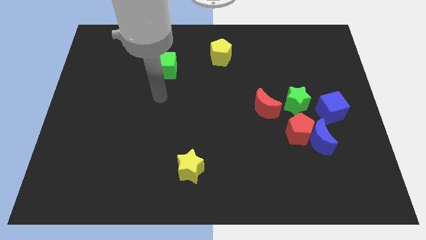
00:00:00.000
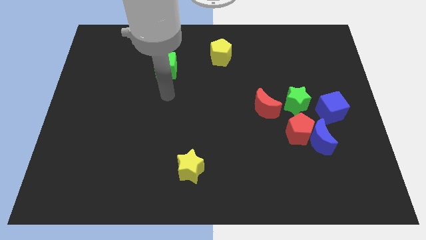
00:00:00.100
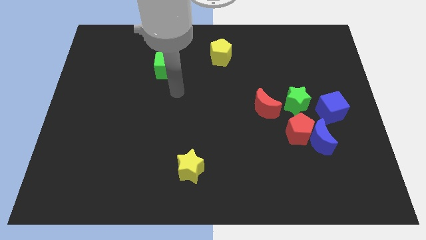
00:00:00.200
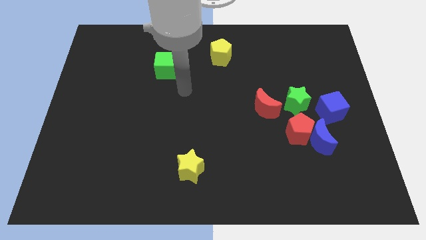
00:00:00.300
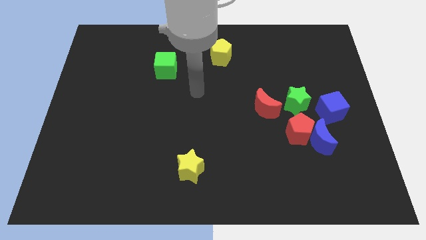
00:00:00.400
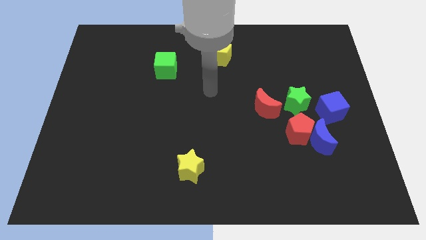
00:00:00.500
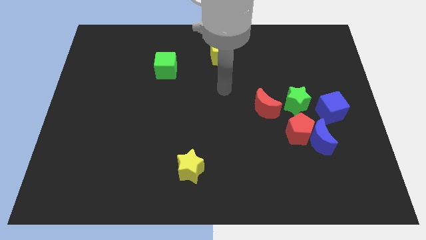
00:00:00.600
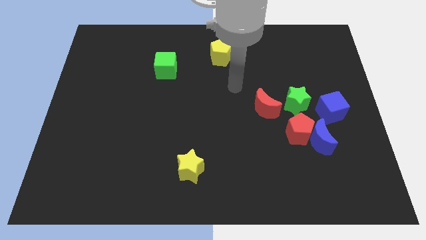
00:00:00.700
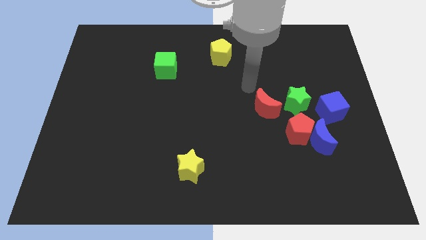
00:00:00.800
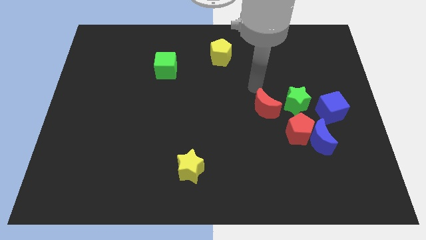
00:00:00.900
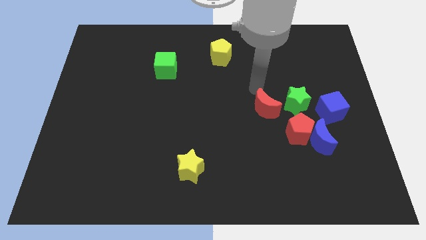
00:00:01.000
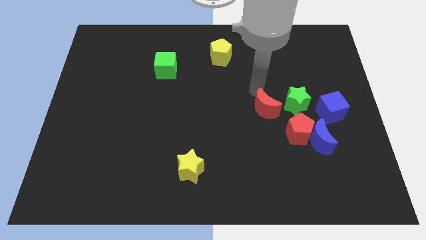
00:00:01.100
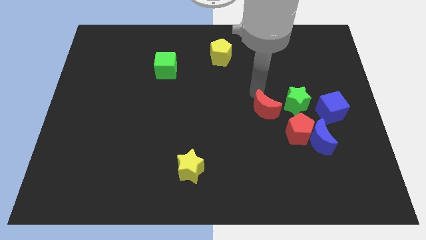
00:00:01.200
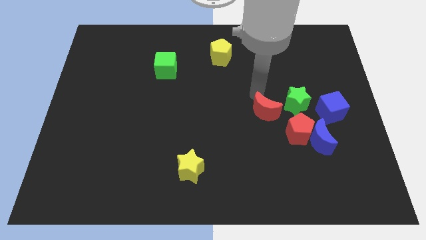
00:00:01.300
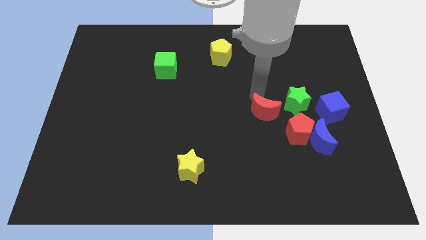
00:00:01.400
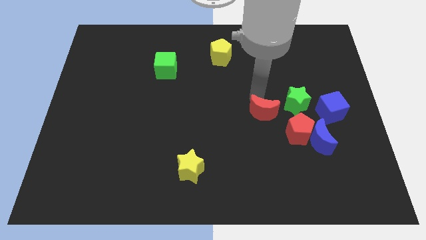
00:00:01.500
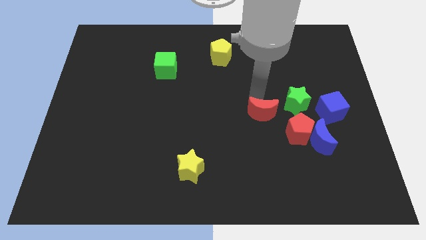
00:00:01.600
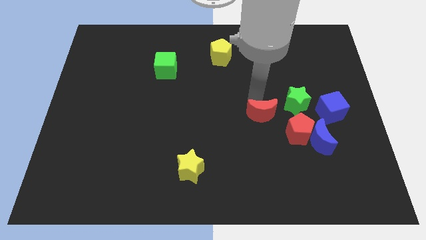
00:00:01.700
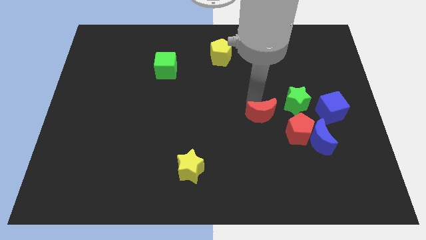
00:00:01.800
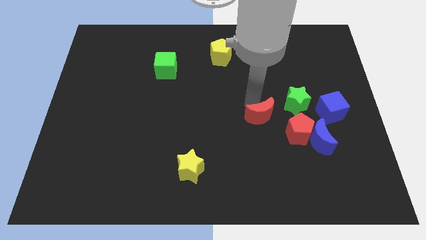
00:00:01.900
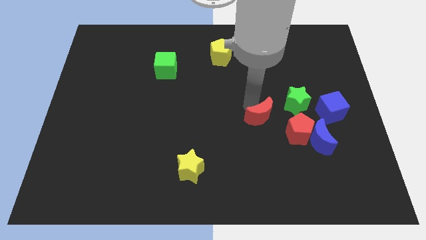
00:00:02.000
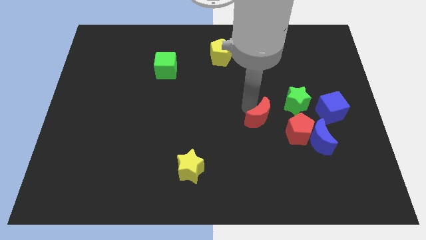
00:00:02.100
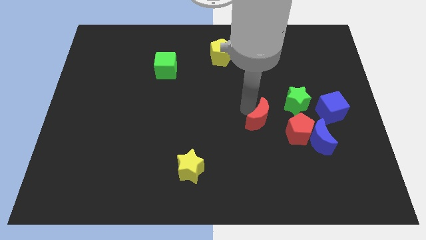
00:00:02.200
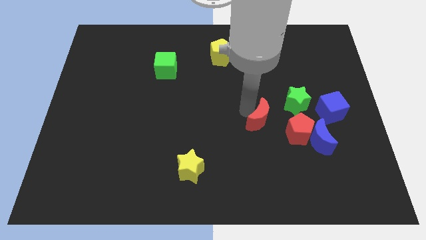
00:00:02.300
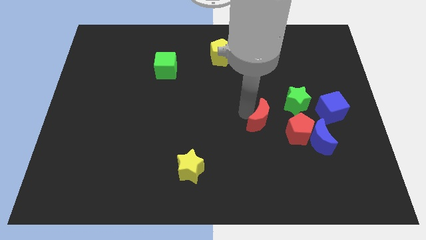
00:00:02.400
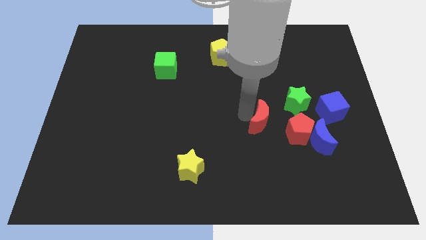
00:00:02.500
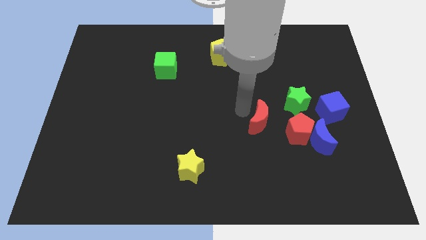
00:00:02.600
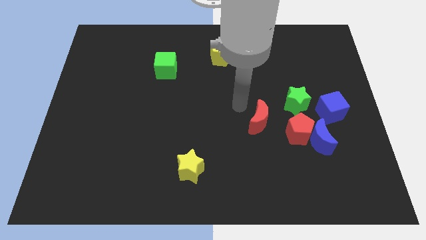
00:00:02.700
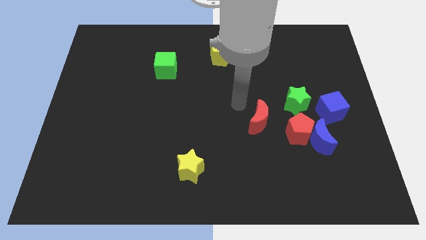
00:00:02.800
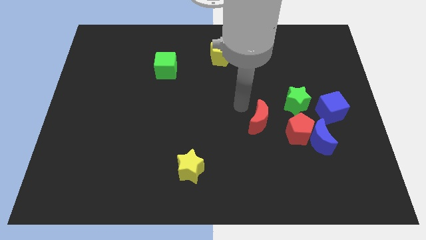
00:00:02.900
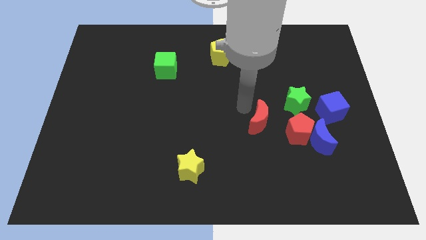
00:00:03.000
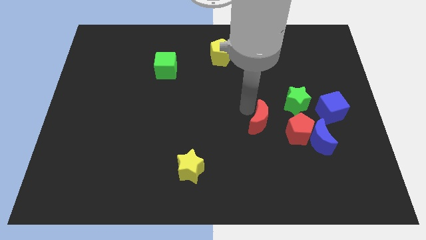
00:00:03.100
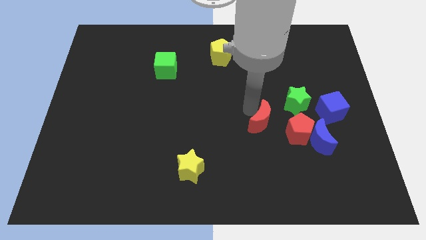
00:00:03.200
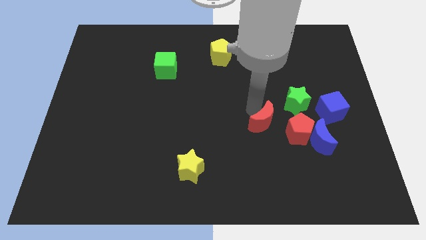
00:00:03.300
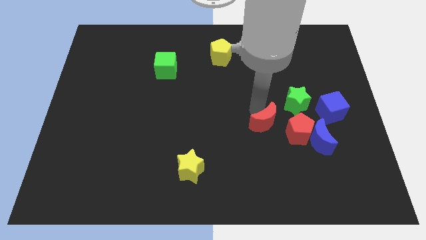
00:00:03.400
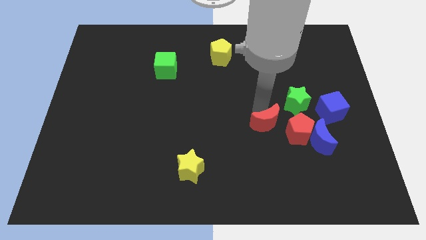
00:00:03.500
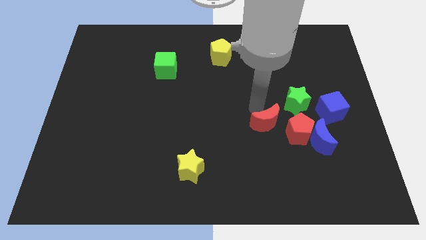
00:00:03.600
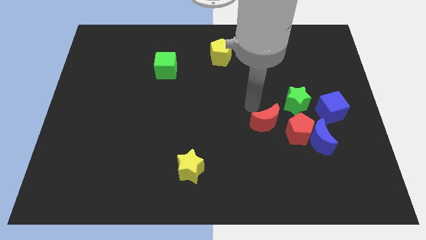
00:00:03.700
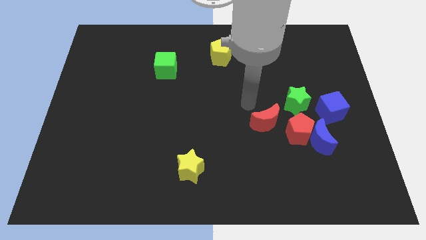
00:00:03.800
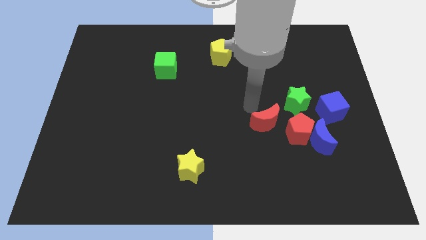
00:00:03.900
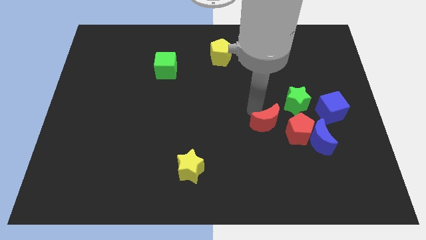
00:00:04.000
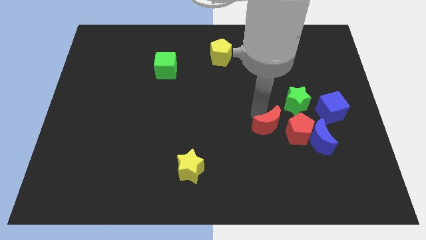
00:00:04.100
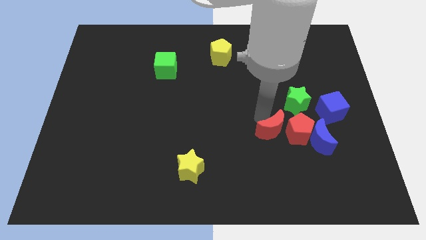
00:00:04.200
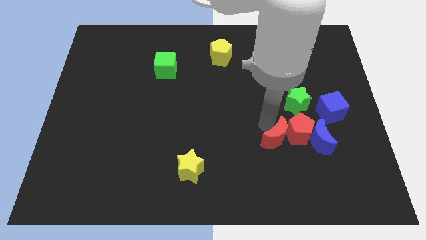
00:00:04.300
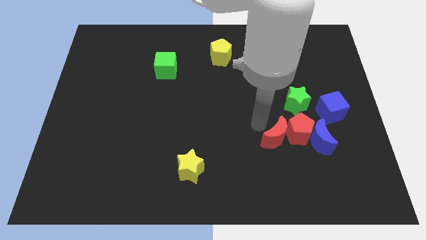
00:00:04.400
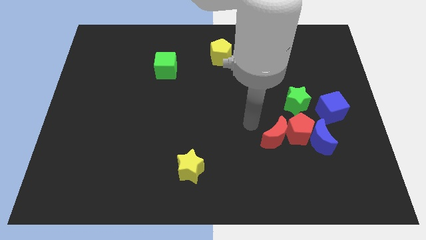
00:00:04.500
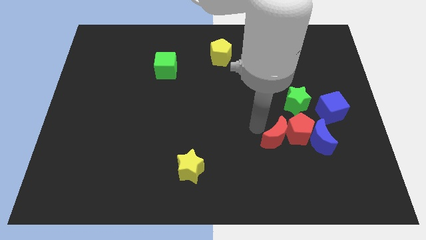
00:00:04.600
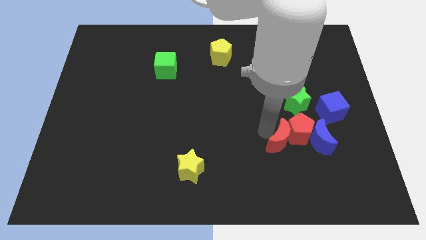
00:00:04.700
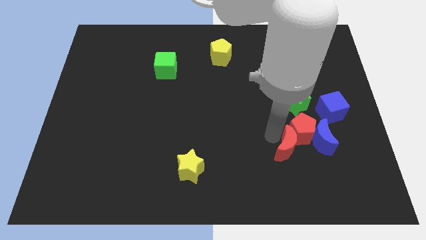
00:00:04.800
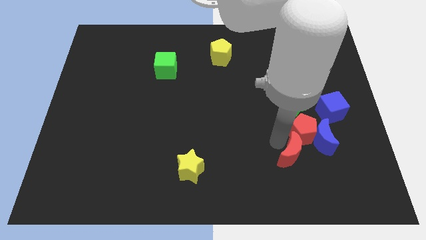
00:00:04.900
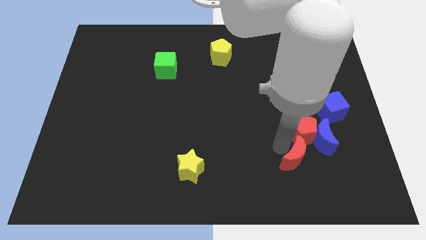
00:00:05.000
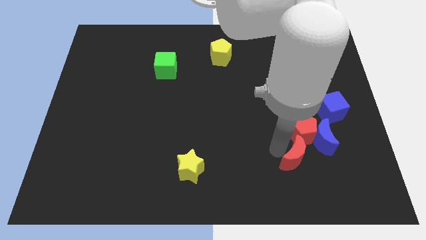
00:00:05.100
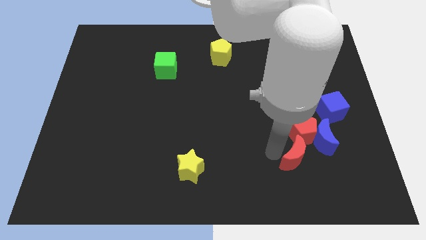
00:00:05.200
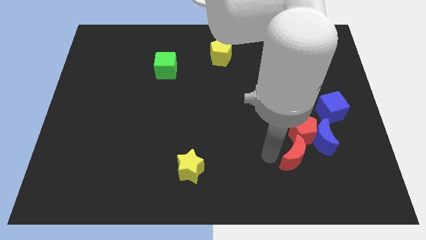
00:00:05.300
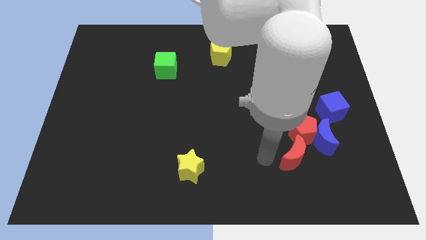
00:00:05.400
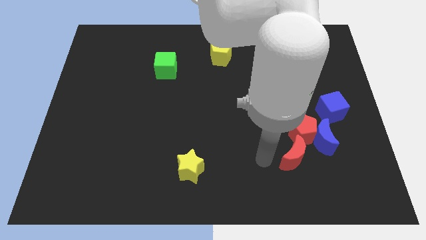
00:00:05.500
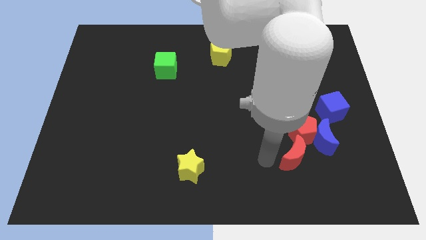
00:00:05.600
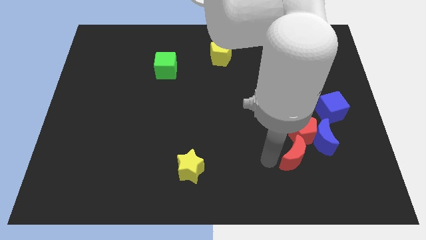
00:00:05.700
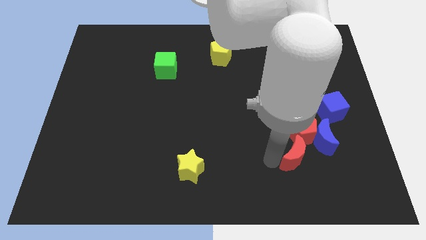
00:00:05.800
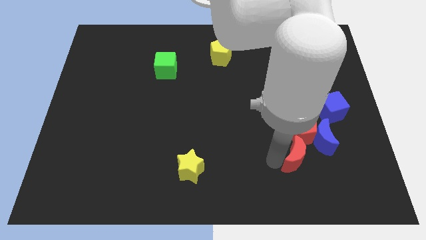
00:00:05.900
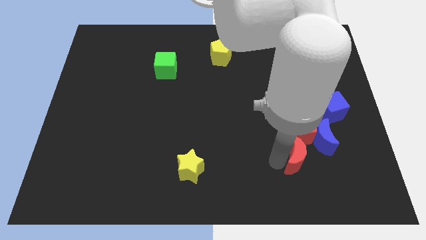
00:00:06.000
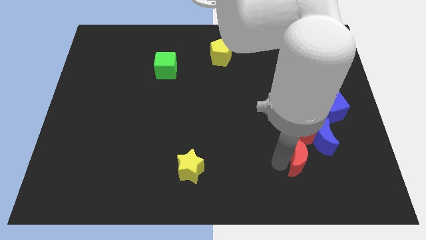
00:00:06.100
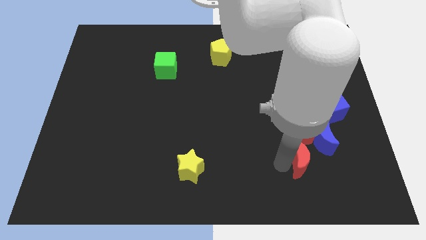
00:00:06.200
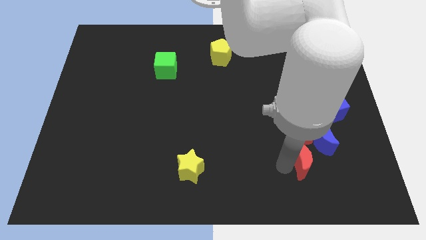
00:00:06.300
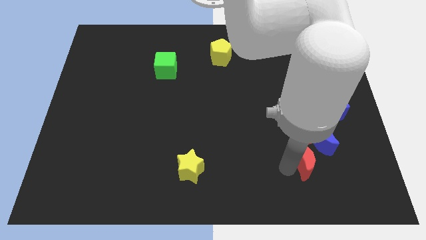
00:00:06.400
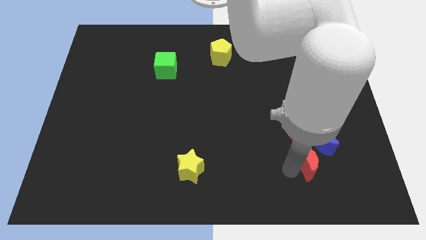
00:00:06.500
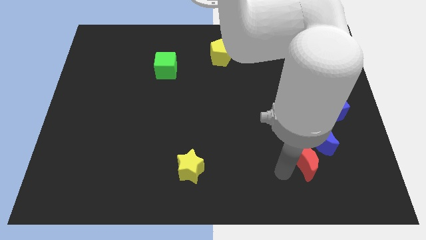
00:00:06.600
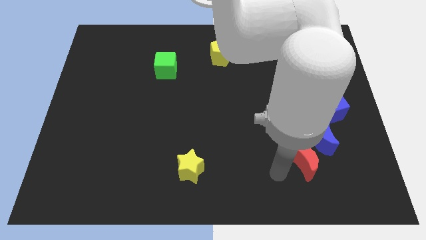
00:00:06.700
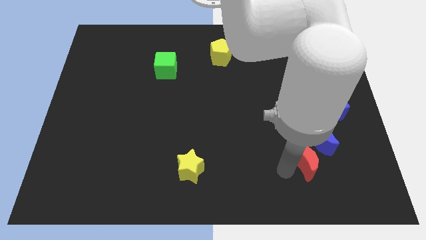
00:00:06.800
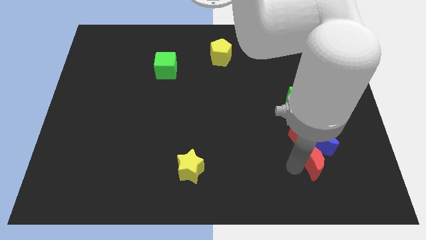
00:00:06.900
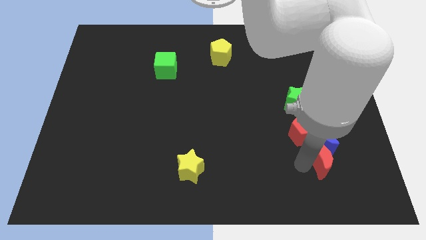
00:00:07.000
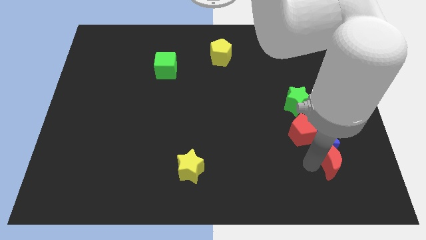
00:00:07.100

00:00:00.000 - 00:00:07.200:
slide the red moon to the bottom of the blue cube

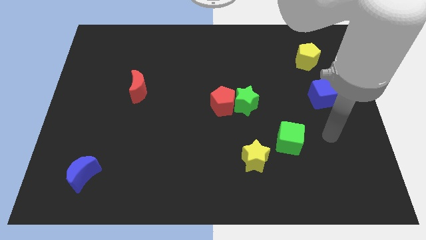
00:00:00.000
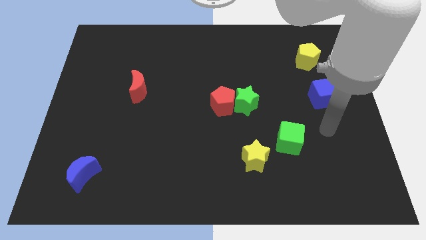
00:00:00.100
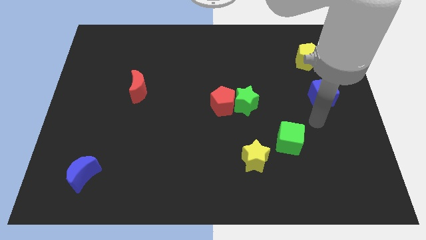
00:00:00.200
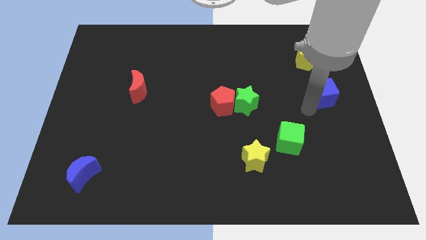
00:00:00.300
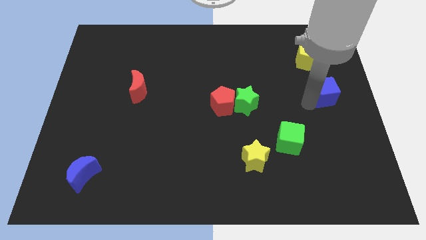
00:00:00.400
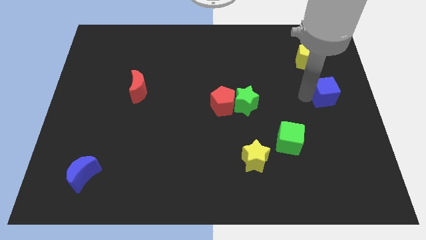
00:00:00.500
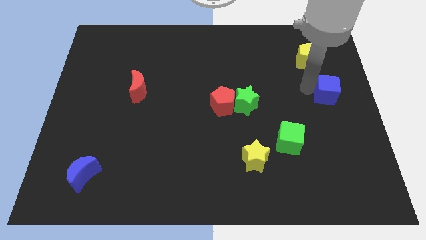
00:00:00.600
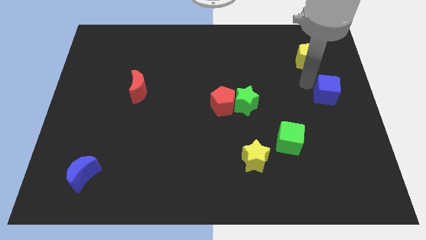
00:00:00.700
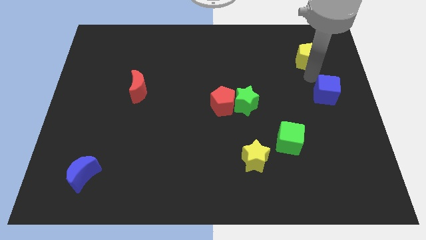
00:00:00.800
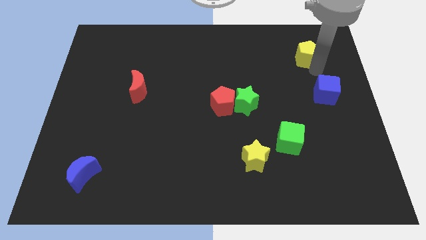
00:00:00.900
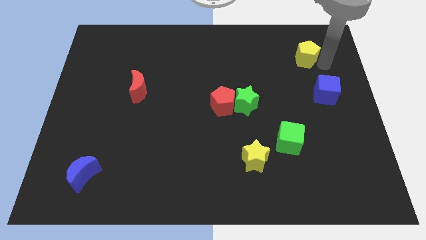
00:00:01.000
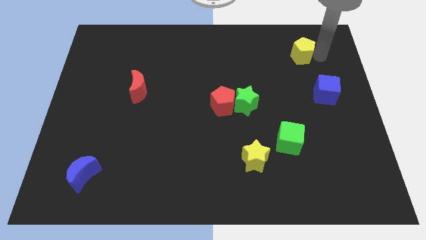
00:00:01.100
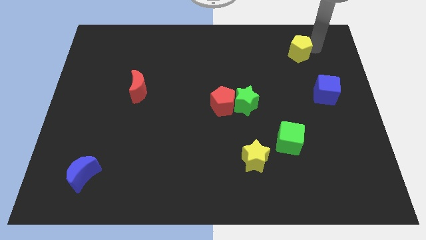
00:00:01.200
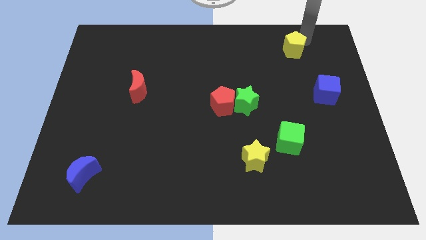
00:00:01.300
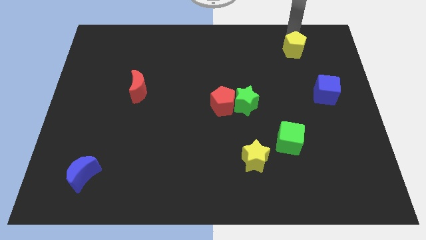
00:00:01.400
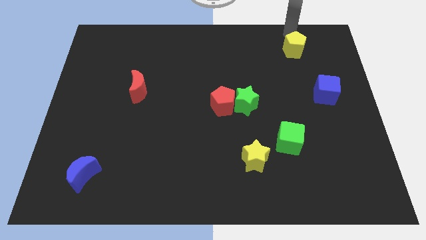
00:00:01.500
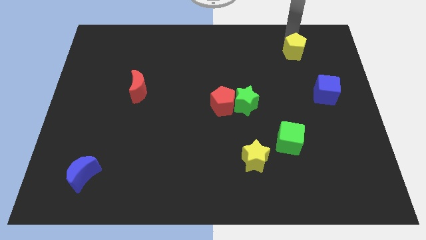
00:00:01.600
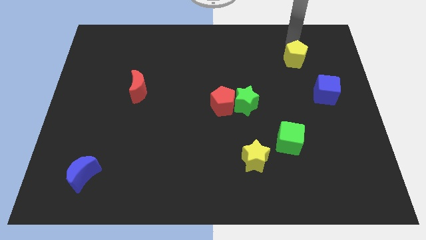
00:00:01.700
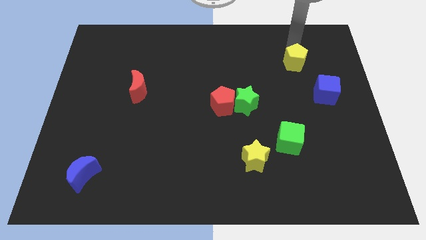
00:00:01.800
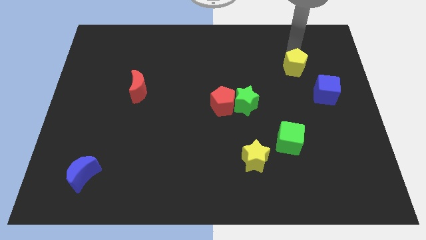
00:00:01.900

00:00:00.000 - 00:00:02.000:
move the yellow pentagon to the top left of the blue cube
